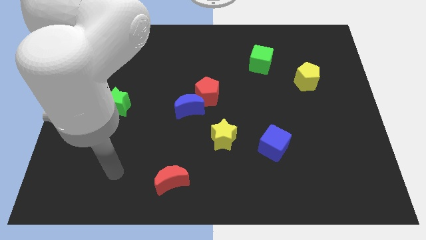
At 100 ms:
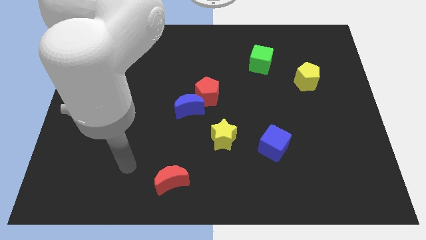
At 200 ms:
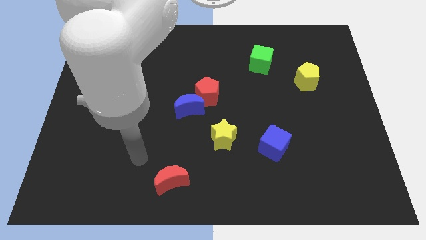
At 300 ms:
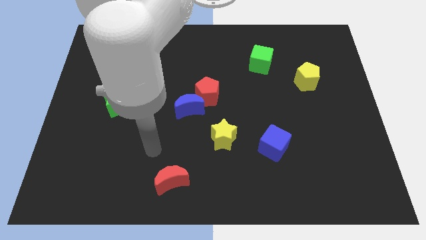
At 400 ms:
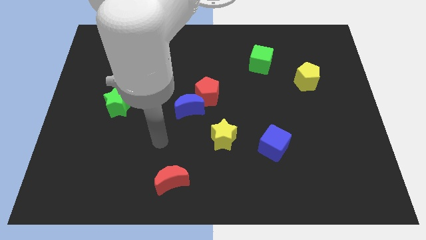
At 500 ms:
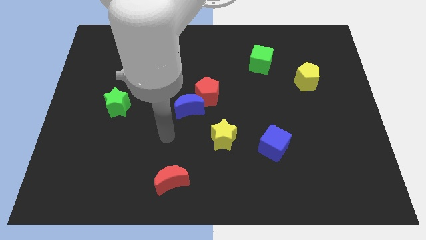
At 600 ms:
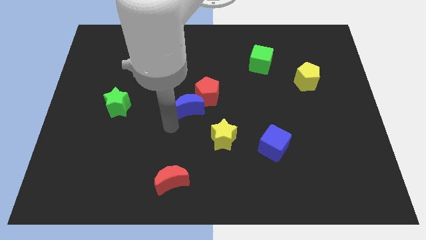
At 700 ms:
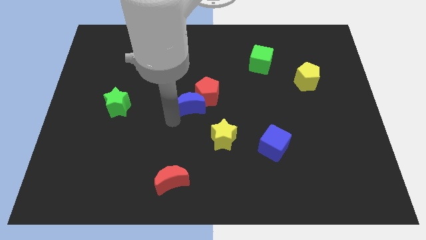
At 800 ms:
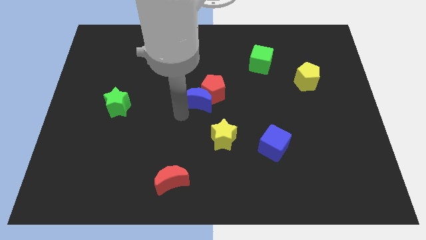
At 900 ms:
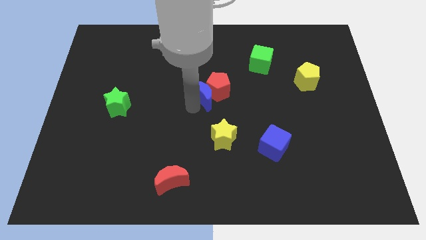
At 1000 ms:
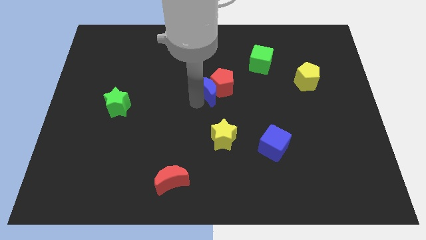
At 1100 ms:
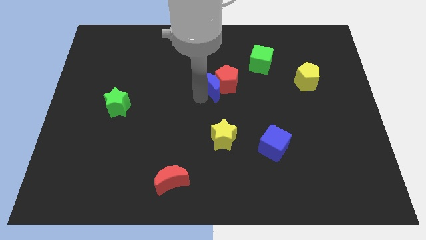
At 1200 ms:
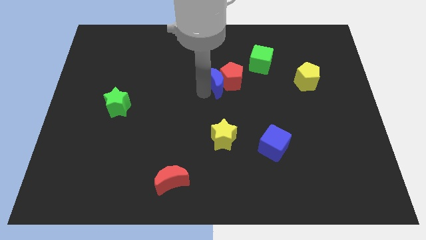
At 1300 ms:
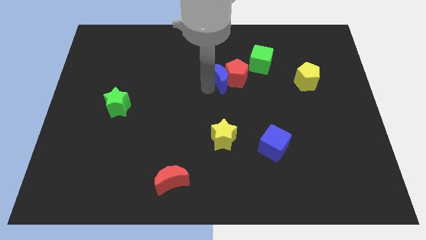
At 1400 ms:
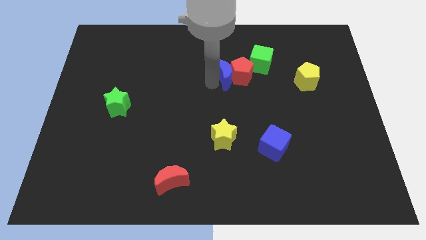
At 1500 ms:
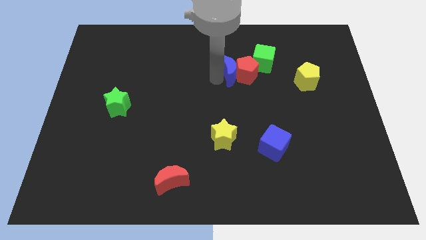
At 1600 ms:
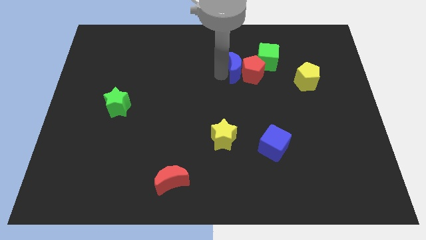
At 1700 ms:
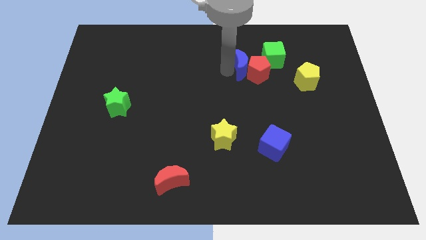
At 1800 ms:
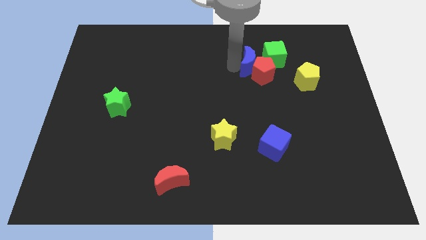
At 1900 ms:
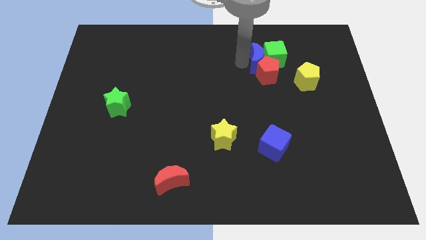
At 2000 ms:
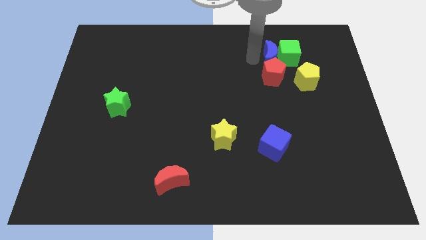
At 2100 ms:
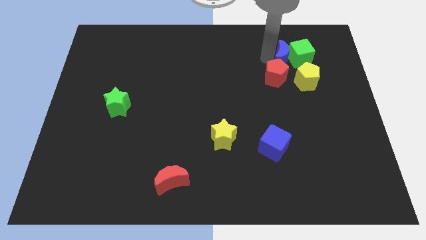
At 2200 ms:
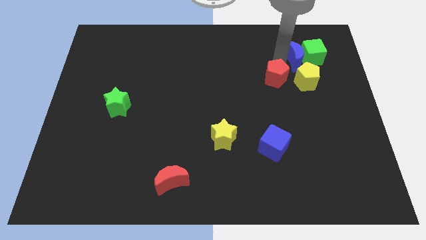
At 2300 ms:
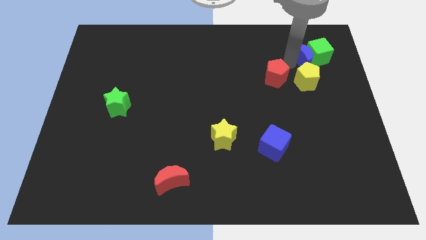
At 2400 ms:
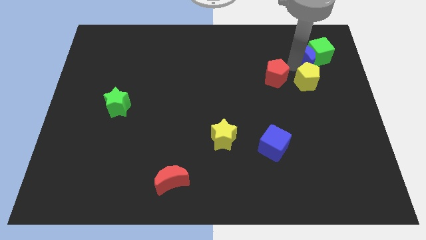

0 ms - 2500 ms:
separate the red pentagon from the blue moon

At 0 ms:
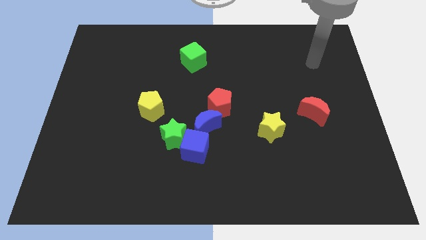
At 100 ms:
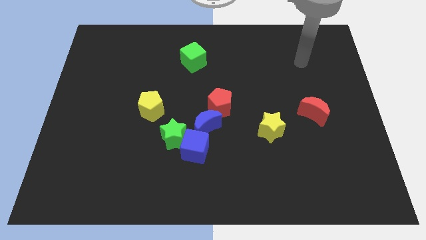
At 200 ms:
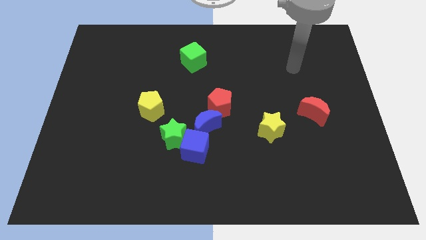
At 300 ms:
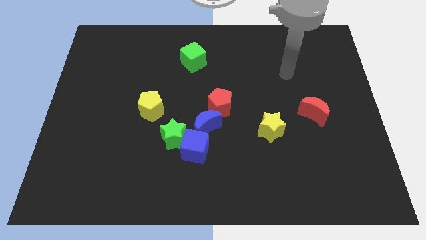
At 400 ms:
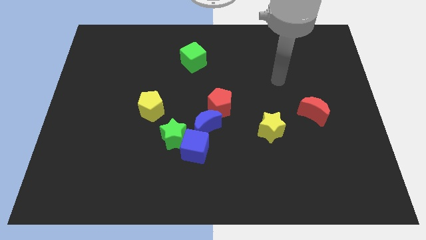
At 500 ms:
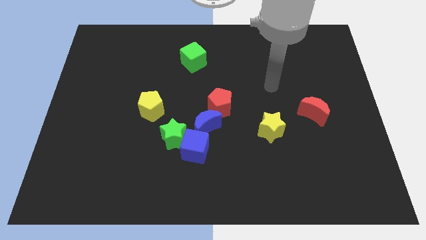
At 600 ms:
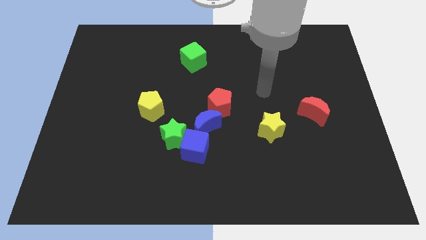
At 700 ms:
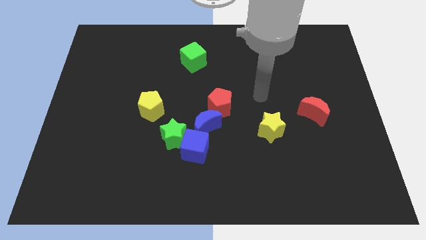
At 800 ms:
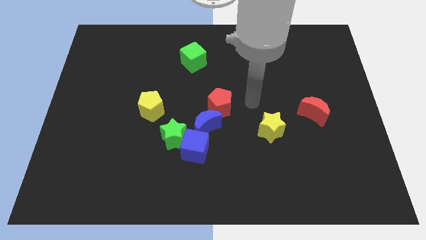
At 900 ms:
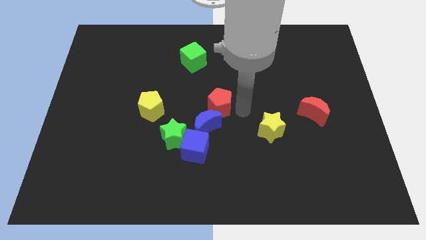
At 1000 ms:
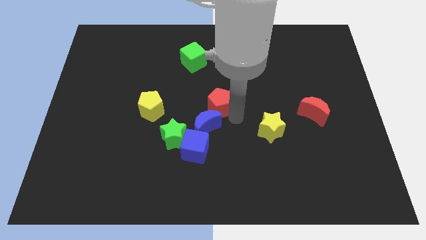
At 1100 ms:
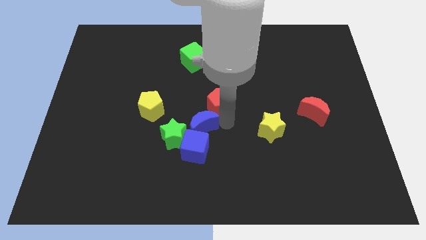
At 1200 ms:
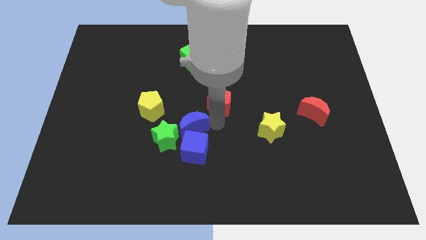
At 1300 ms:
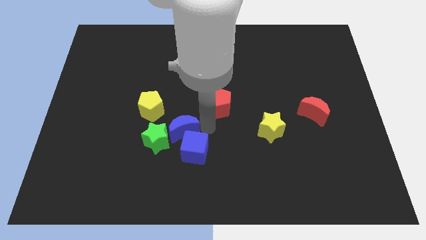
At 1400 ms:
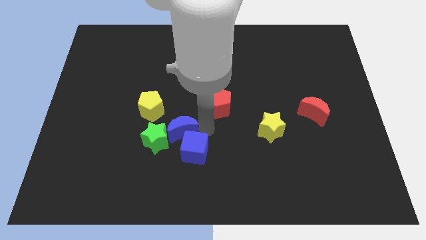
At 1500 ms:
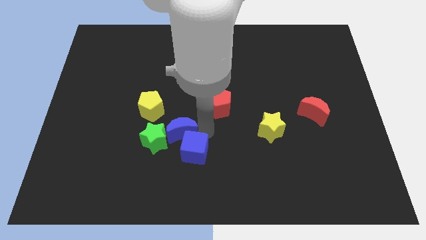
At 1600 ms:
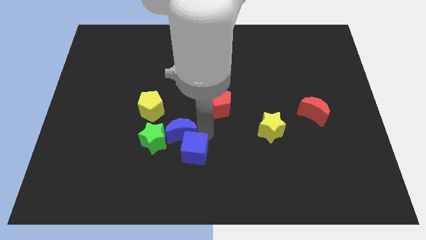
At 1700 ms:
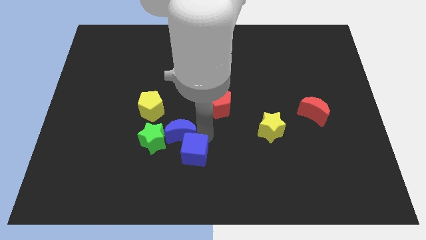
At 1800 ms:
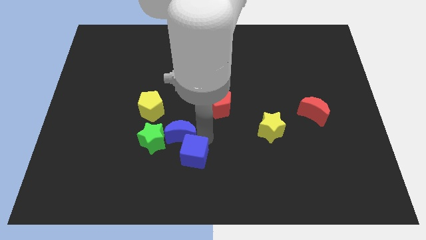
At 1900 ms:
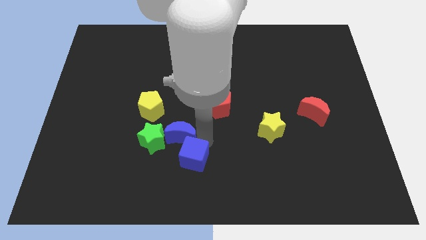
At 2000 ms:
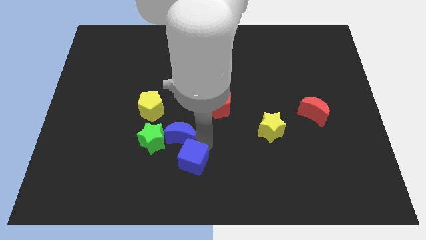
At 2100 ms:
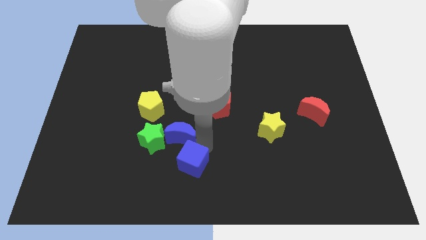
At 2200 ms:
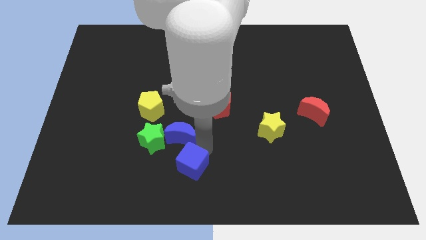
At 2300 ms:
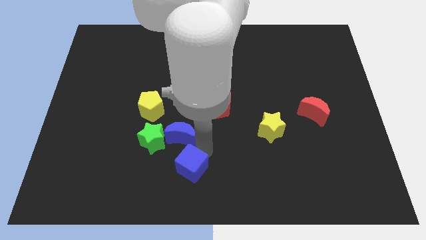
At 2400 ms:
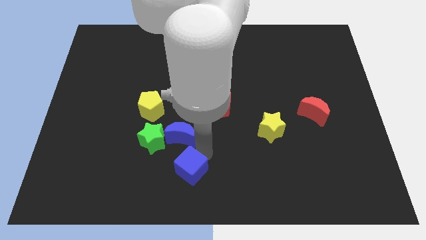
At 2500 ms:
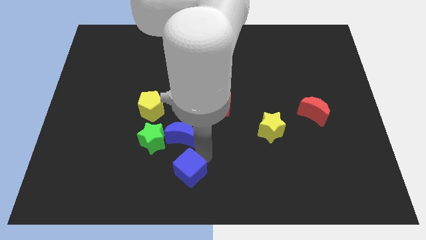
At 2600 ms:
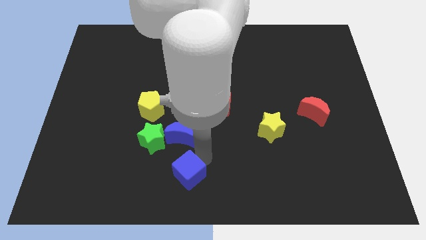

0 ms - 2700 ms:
move the blue cube away from the green star and blue moon

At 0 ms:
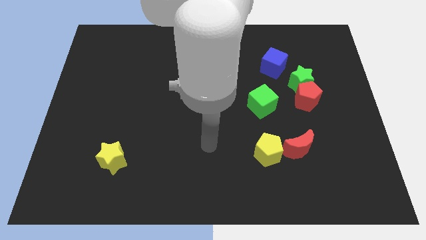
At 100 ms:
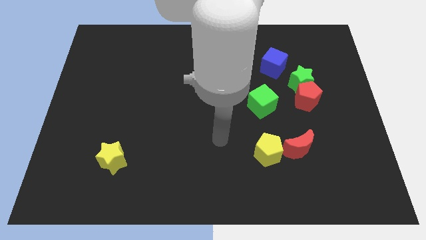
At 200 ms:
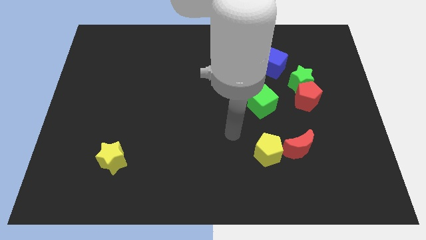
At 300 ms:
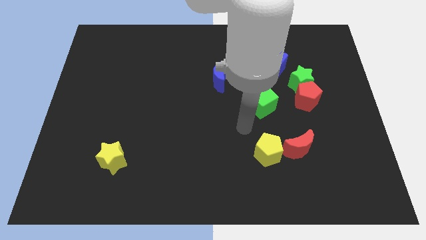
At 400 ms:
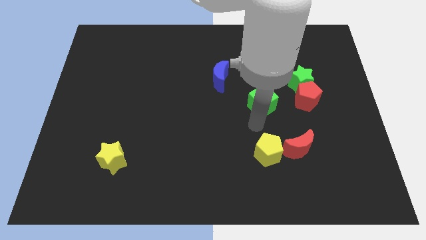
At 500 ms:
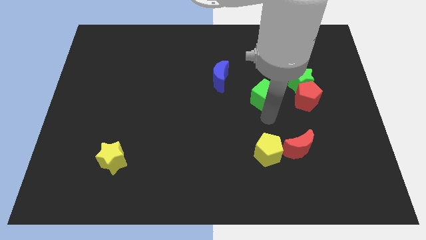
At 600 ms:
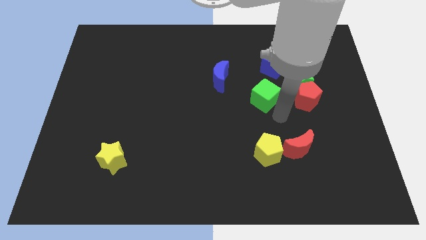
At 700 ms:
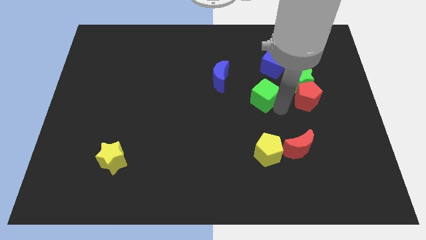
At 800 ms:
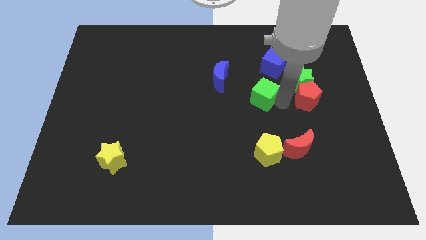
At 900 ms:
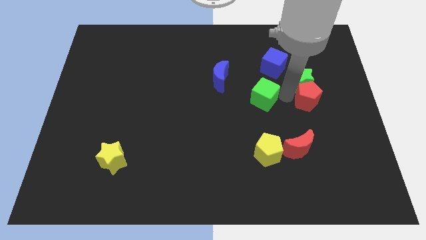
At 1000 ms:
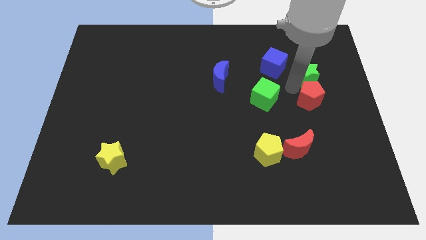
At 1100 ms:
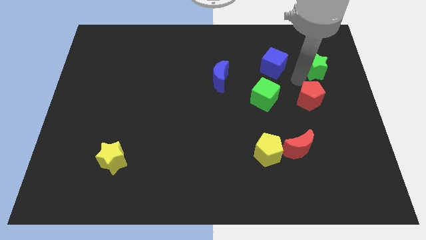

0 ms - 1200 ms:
move the red pentagon away from the green star

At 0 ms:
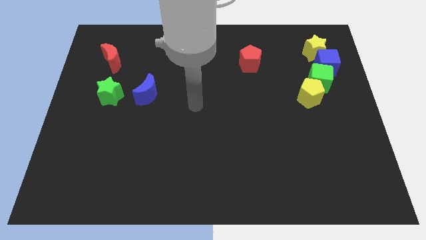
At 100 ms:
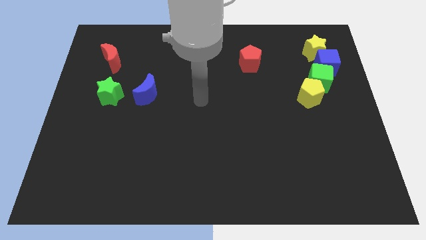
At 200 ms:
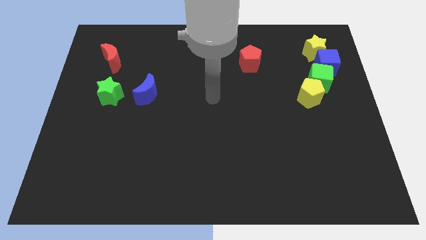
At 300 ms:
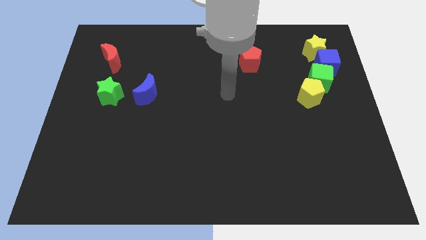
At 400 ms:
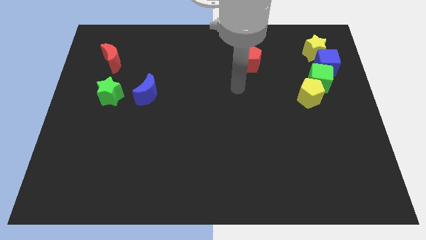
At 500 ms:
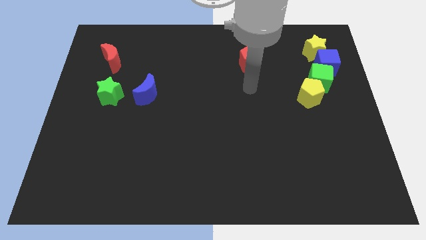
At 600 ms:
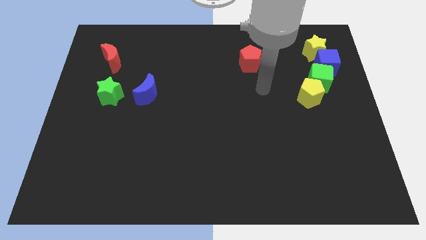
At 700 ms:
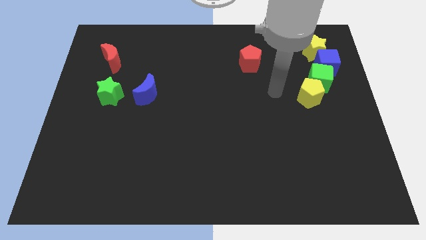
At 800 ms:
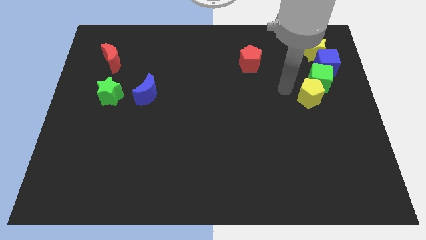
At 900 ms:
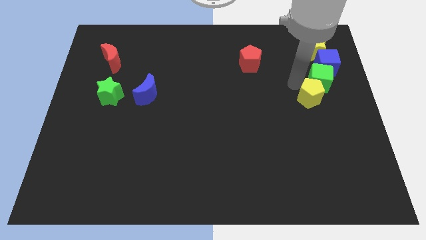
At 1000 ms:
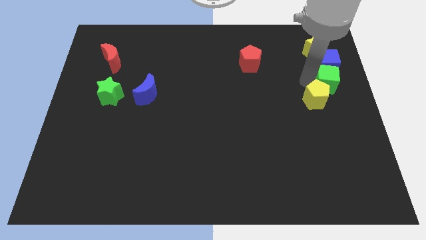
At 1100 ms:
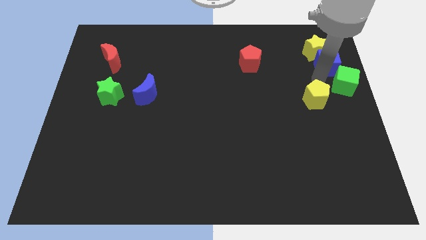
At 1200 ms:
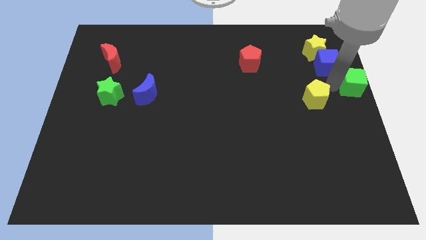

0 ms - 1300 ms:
move the yellow pentagon away from the green cube

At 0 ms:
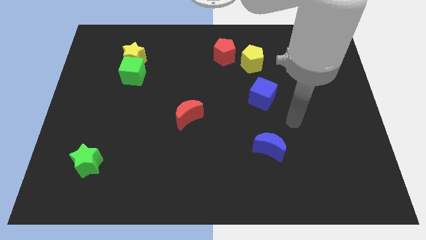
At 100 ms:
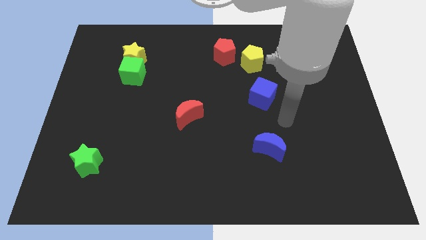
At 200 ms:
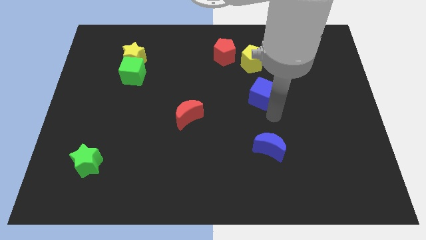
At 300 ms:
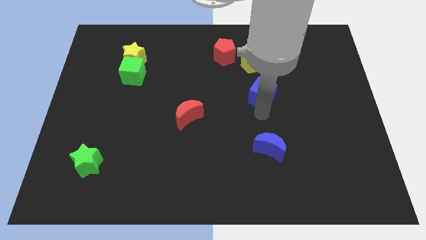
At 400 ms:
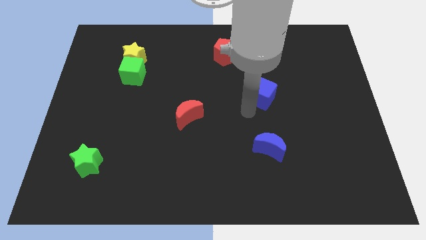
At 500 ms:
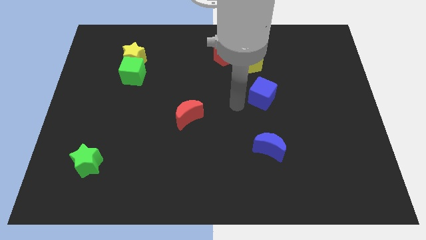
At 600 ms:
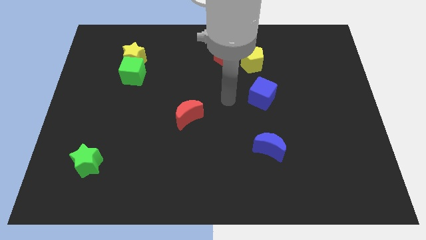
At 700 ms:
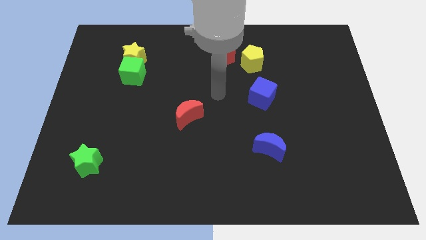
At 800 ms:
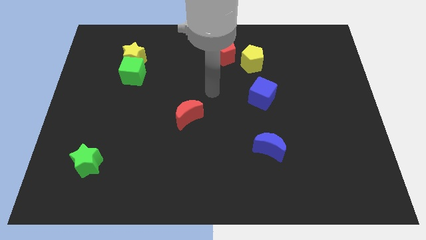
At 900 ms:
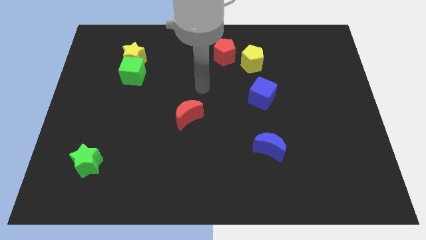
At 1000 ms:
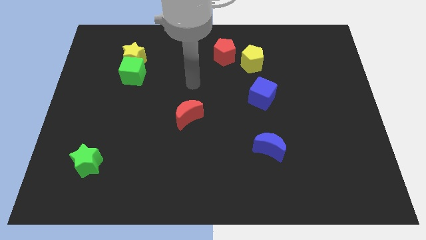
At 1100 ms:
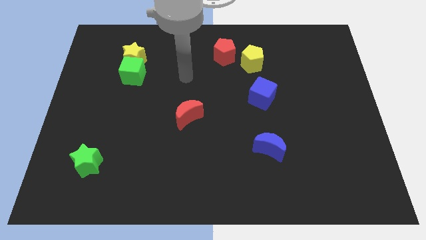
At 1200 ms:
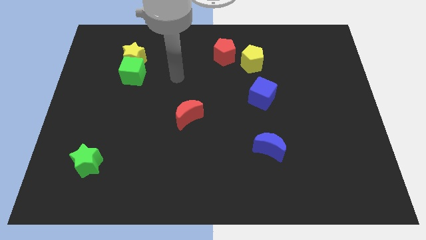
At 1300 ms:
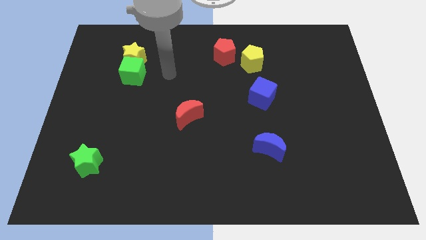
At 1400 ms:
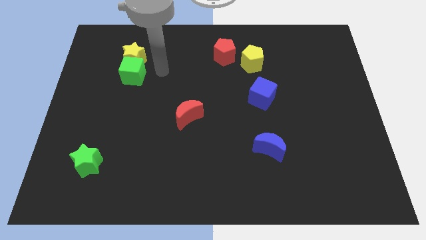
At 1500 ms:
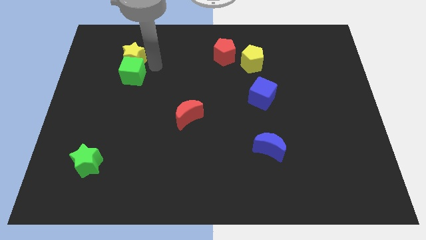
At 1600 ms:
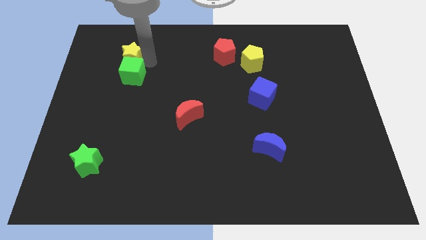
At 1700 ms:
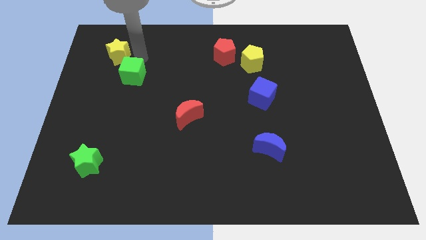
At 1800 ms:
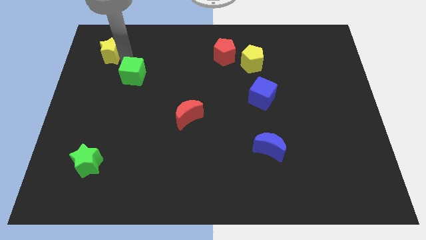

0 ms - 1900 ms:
separate the green cube from the yellow star
